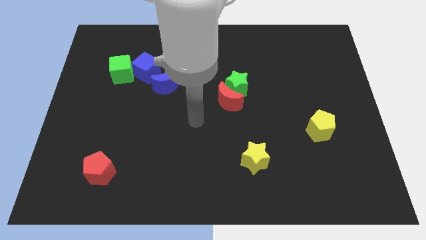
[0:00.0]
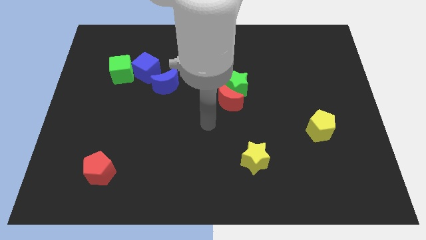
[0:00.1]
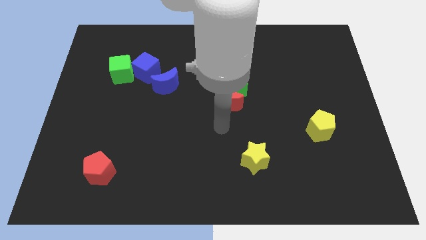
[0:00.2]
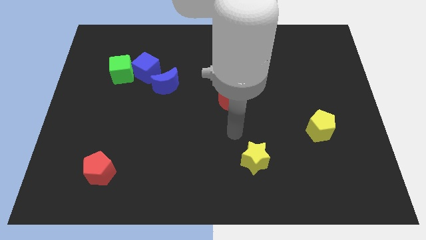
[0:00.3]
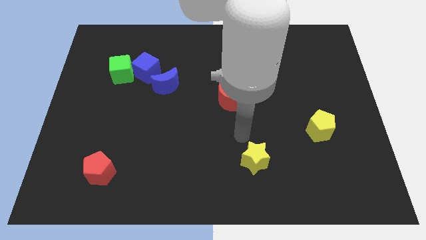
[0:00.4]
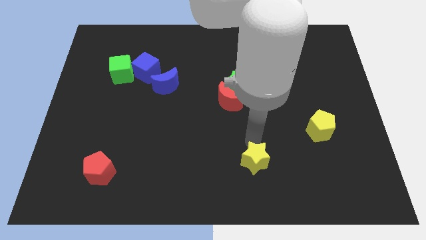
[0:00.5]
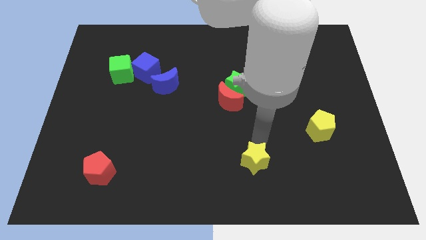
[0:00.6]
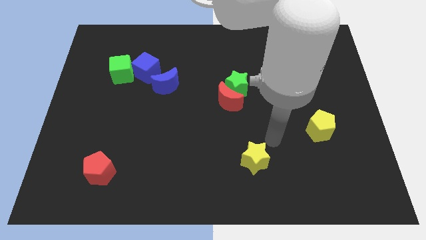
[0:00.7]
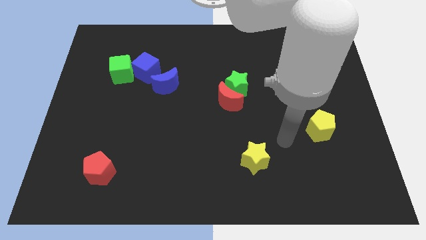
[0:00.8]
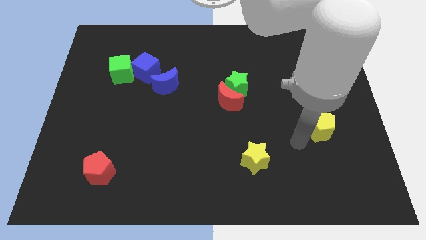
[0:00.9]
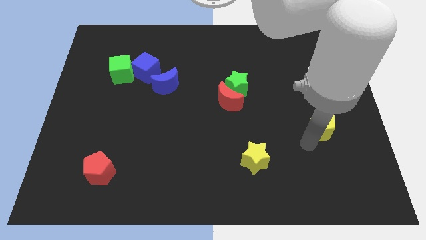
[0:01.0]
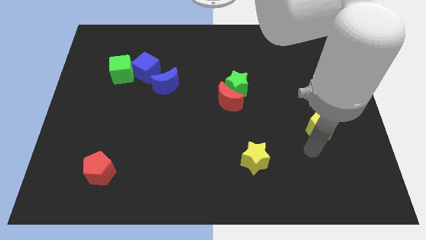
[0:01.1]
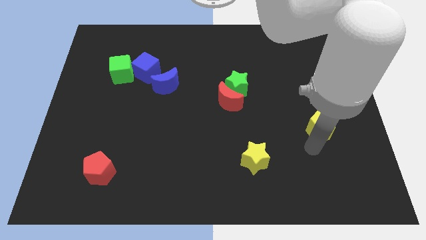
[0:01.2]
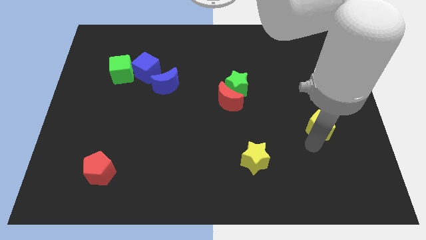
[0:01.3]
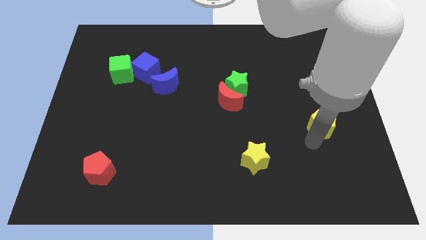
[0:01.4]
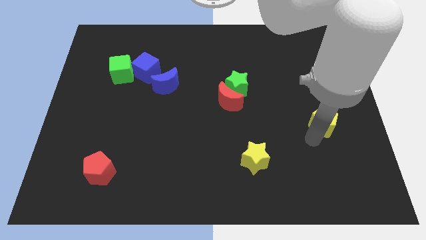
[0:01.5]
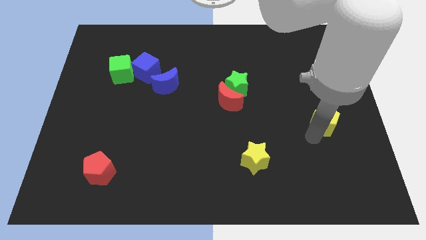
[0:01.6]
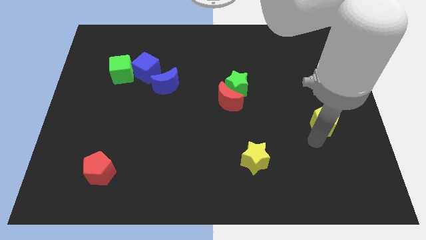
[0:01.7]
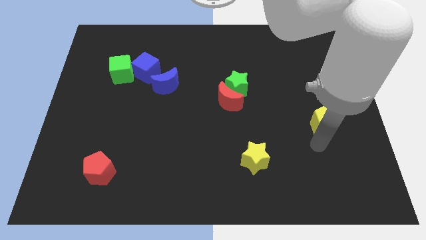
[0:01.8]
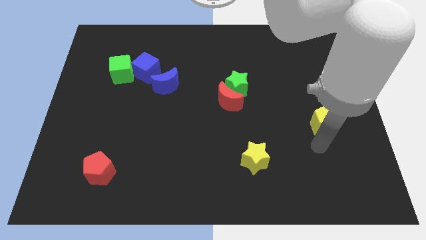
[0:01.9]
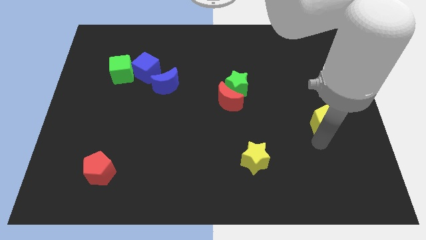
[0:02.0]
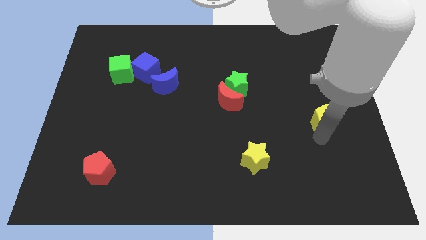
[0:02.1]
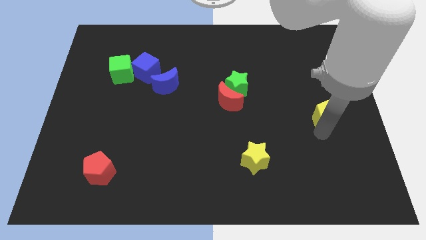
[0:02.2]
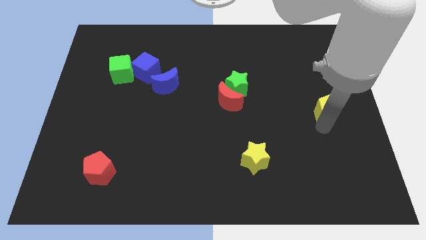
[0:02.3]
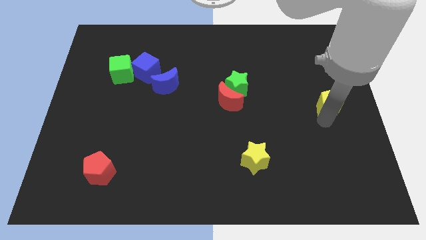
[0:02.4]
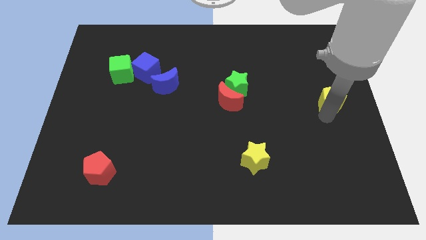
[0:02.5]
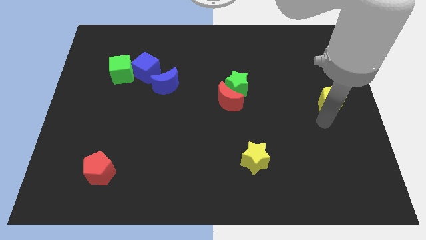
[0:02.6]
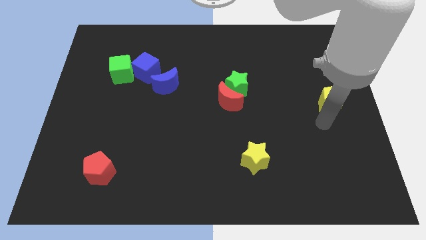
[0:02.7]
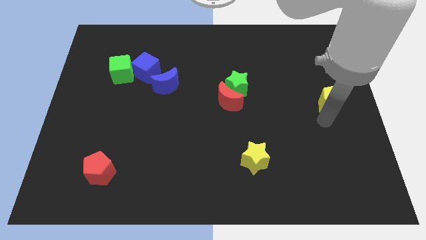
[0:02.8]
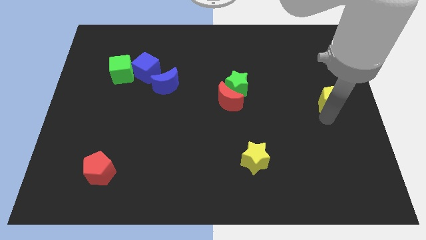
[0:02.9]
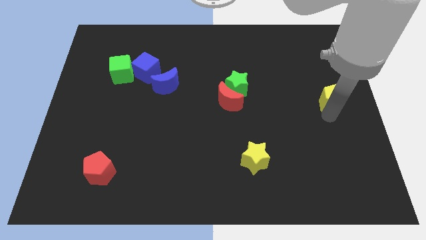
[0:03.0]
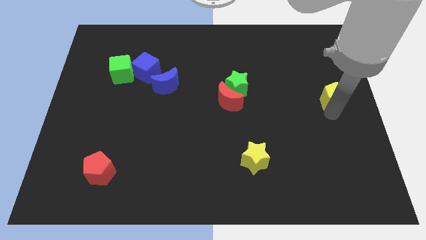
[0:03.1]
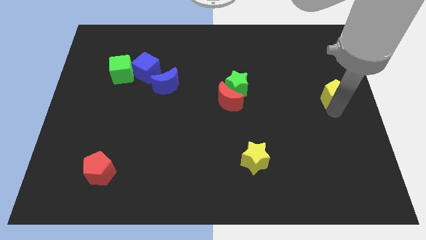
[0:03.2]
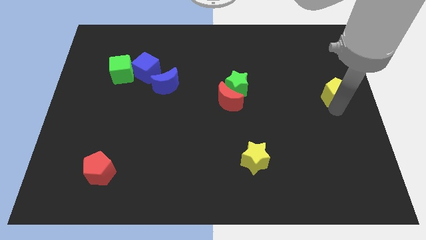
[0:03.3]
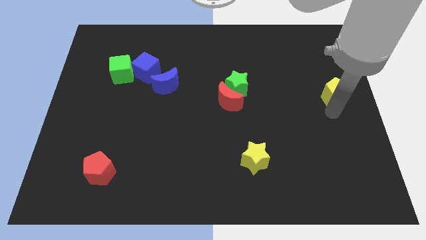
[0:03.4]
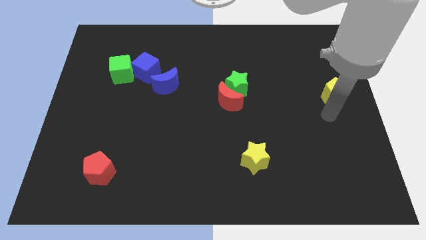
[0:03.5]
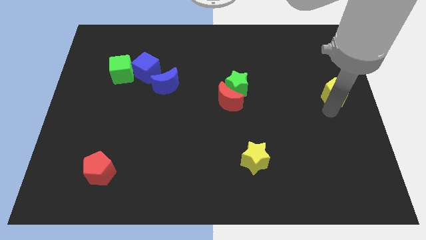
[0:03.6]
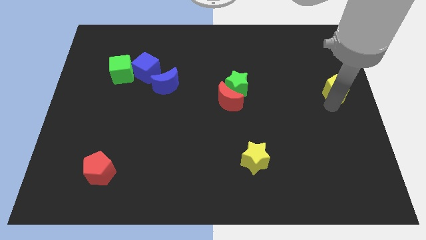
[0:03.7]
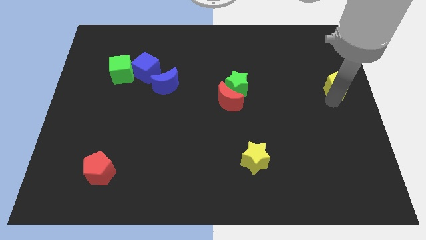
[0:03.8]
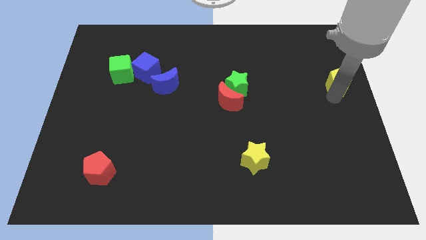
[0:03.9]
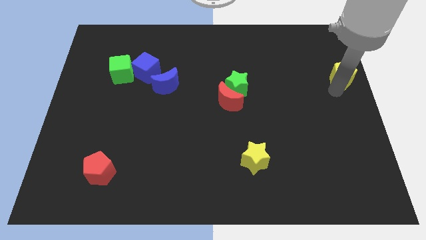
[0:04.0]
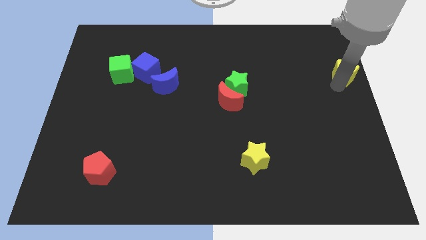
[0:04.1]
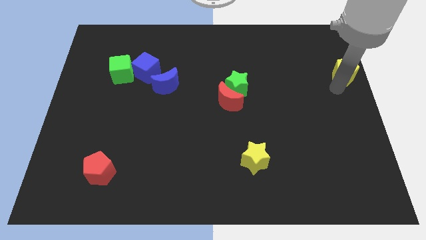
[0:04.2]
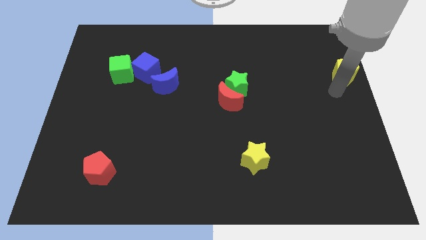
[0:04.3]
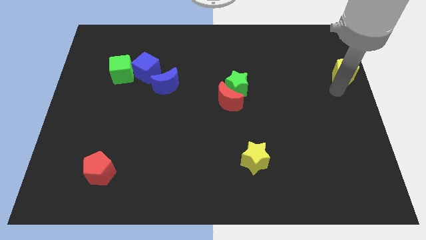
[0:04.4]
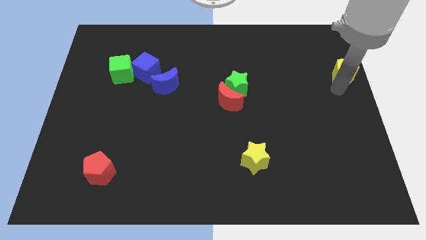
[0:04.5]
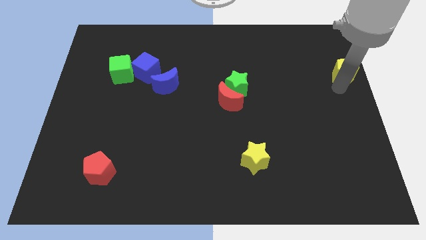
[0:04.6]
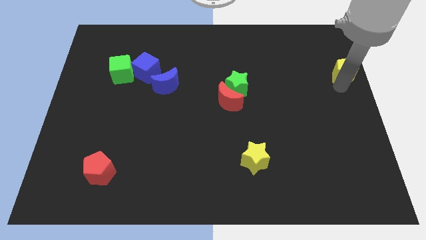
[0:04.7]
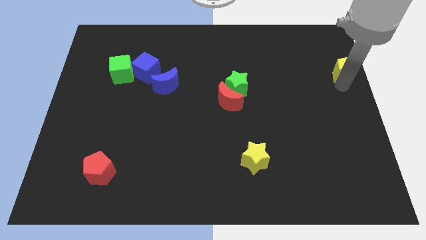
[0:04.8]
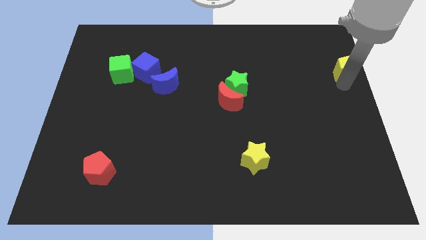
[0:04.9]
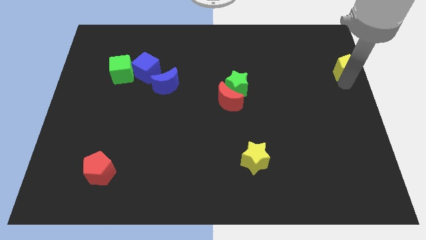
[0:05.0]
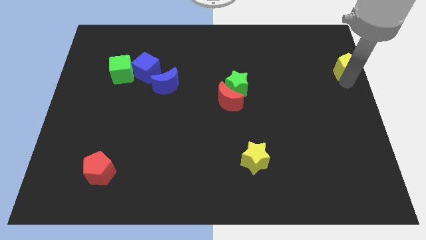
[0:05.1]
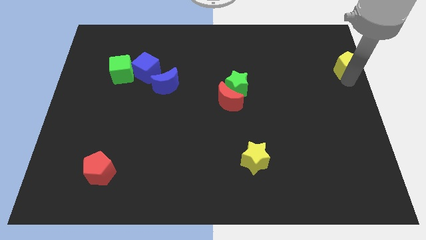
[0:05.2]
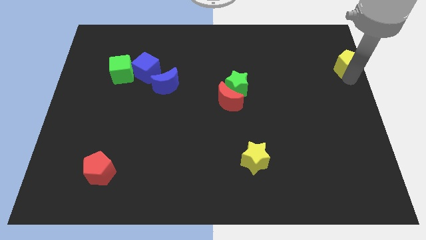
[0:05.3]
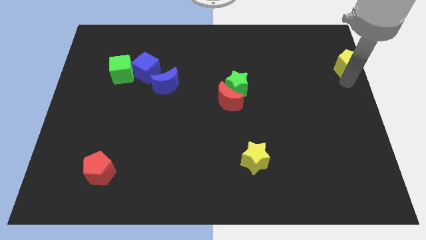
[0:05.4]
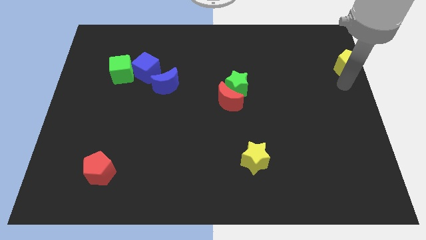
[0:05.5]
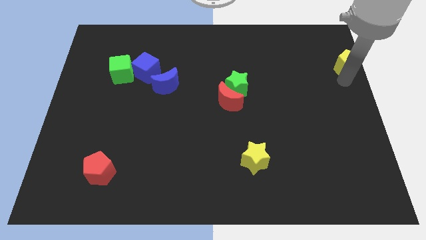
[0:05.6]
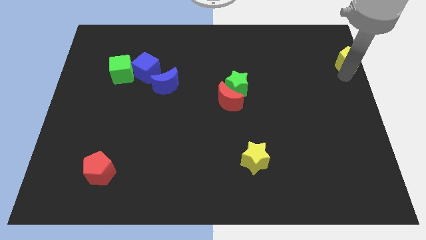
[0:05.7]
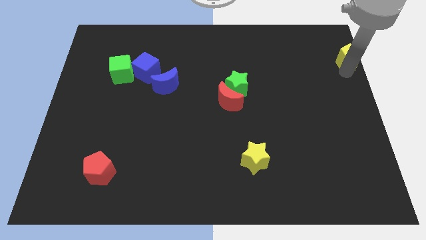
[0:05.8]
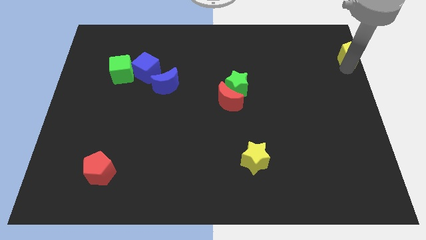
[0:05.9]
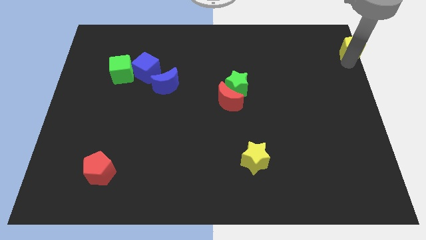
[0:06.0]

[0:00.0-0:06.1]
slide the yellow pentagon to the top right corner
